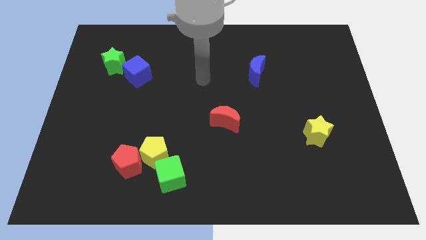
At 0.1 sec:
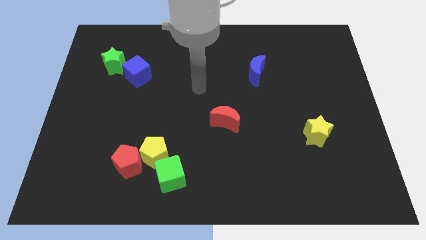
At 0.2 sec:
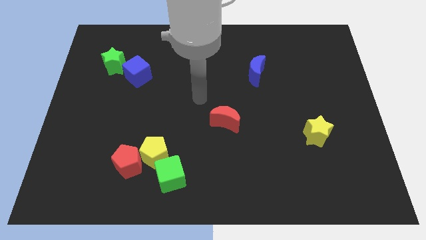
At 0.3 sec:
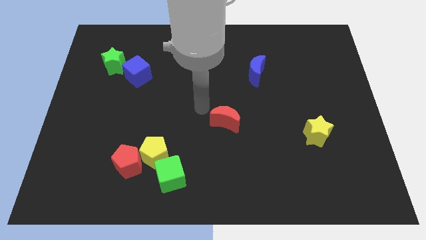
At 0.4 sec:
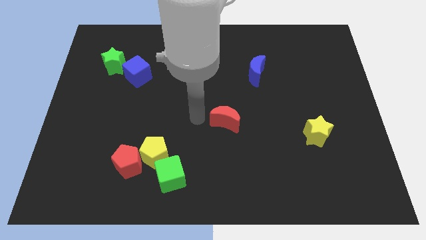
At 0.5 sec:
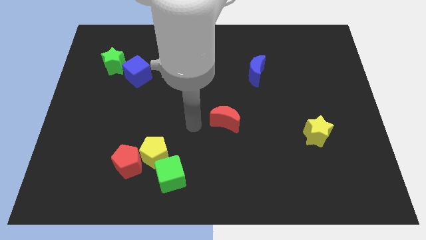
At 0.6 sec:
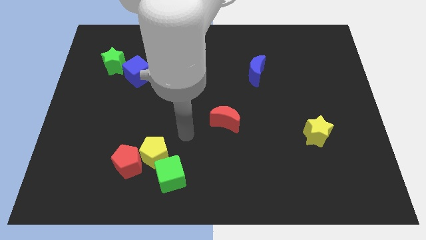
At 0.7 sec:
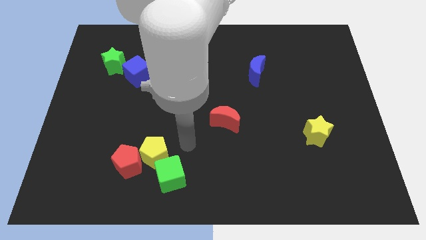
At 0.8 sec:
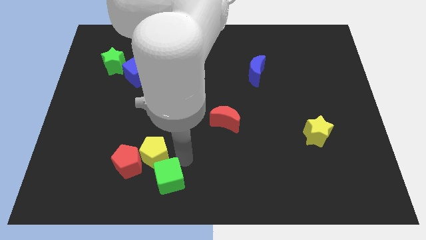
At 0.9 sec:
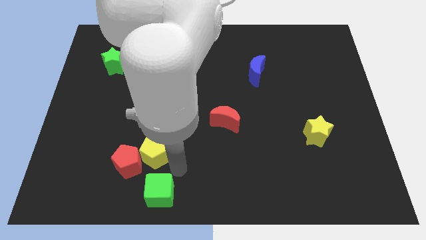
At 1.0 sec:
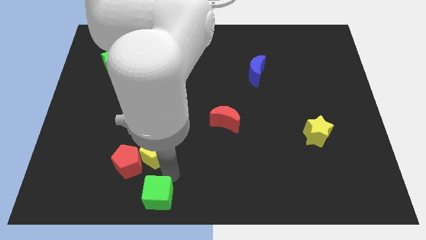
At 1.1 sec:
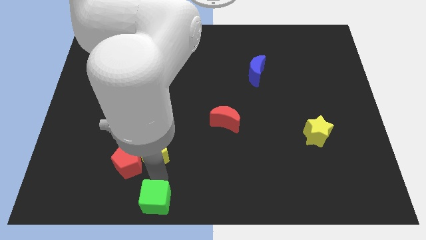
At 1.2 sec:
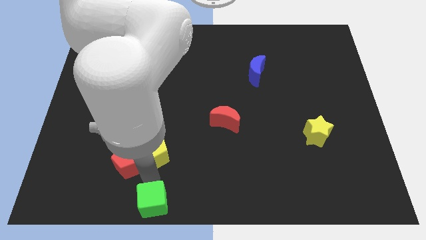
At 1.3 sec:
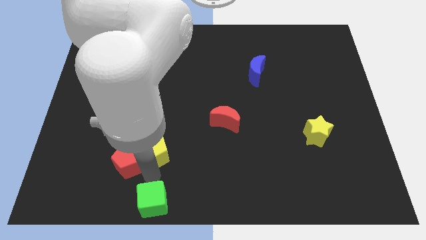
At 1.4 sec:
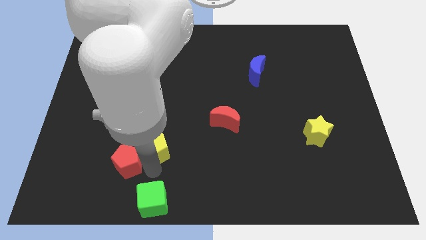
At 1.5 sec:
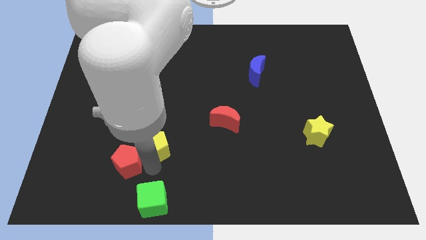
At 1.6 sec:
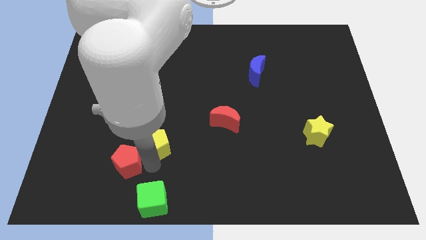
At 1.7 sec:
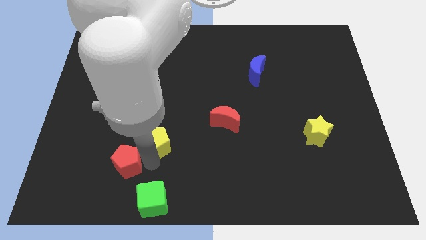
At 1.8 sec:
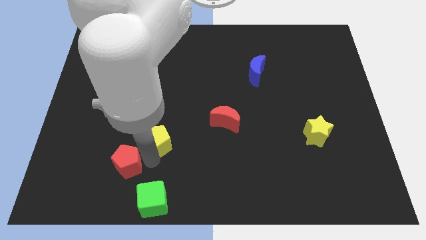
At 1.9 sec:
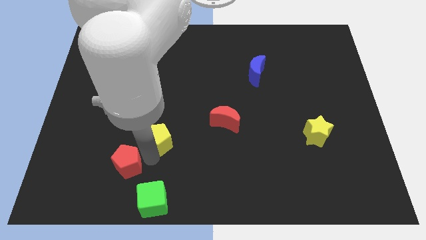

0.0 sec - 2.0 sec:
pull the yellow pentagon apart from the red pentagon and green cube

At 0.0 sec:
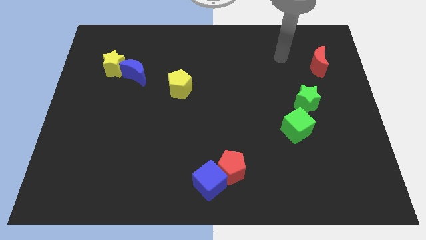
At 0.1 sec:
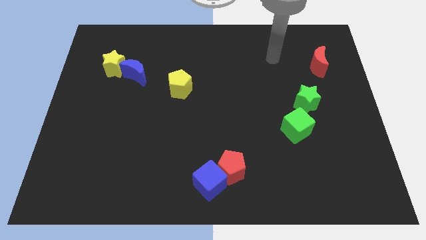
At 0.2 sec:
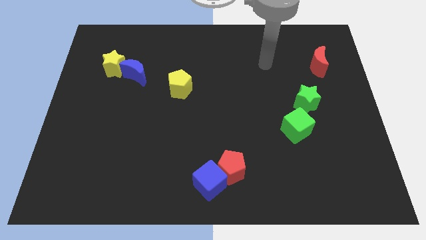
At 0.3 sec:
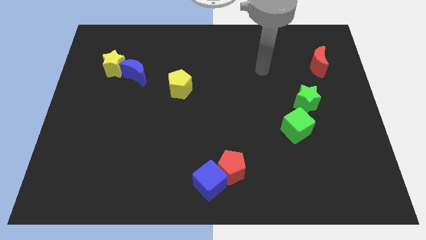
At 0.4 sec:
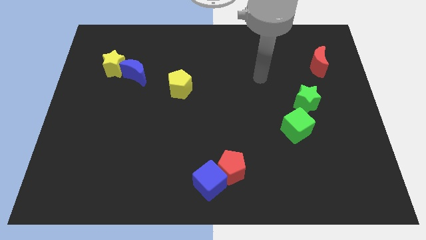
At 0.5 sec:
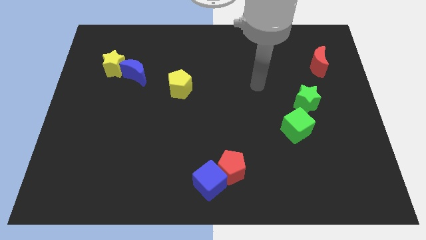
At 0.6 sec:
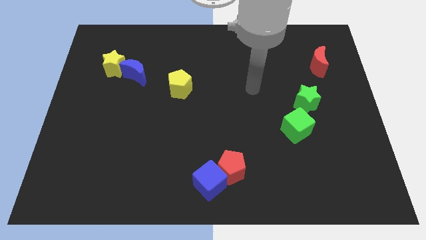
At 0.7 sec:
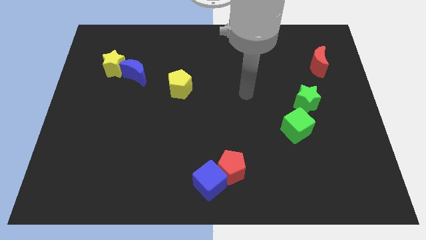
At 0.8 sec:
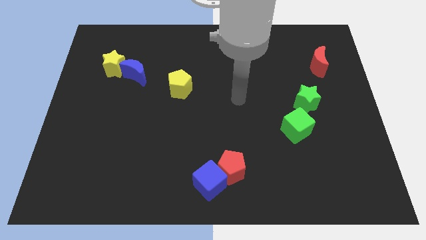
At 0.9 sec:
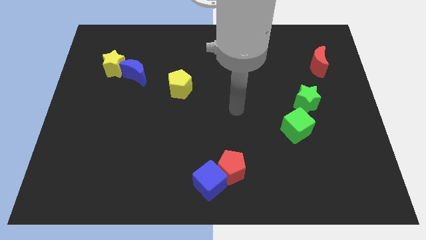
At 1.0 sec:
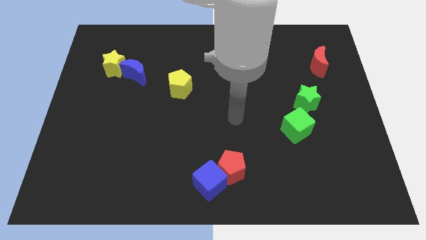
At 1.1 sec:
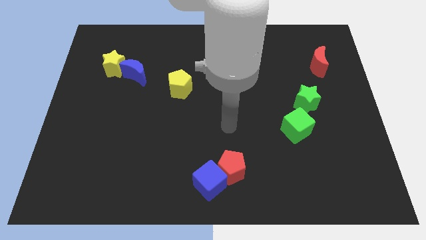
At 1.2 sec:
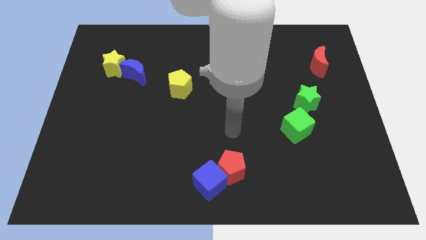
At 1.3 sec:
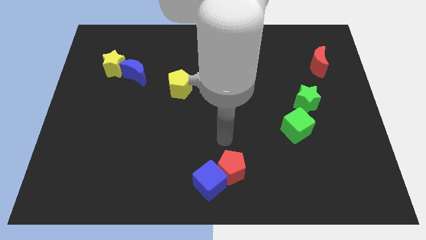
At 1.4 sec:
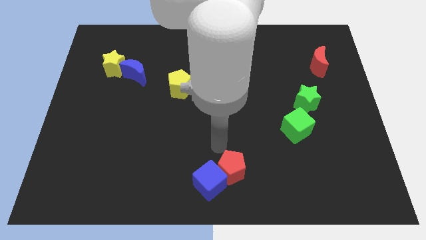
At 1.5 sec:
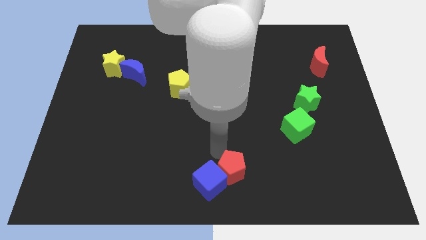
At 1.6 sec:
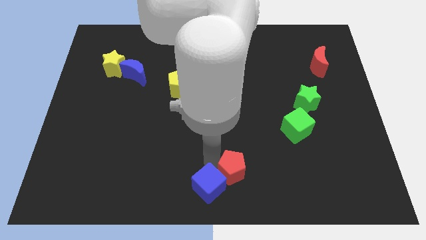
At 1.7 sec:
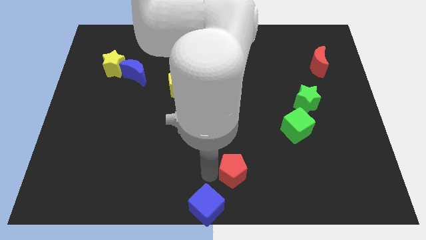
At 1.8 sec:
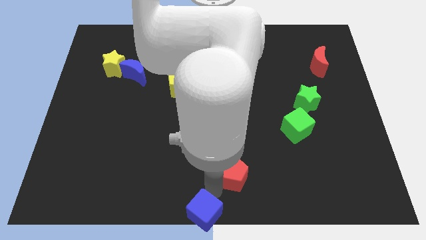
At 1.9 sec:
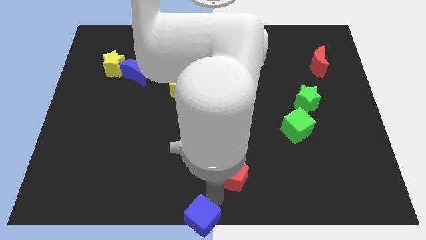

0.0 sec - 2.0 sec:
move the red pentagon away from the blue cube

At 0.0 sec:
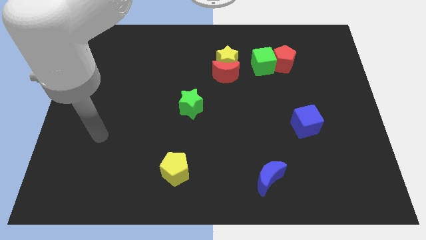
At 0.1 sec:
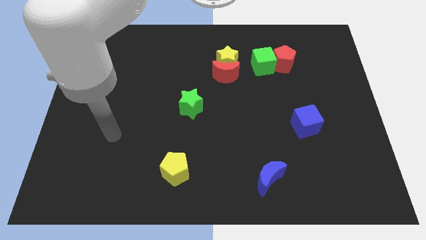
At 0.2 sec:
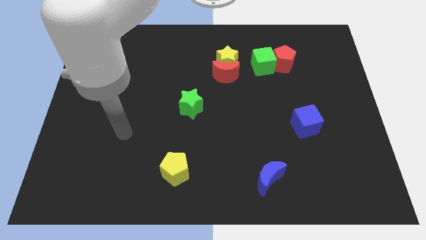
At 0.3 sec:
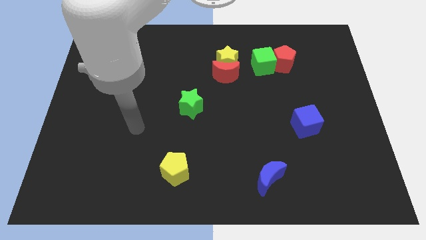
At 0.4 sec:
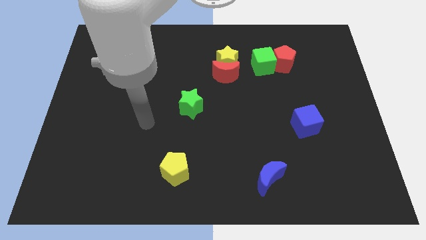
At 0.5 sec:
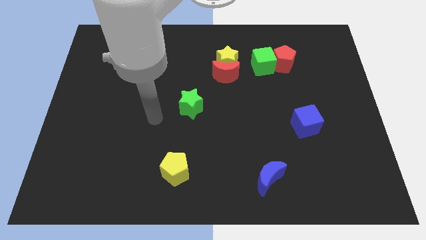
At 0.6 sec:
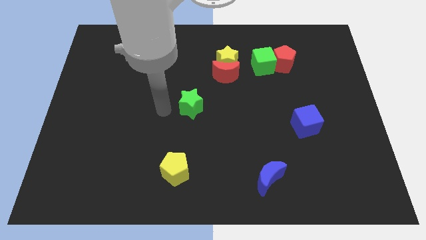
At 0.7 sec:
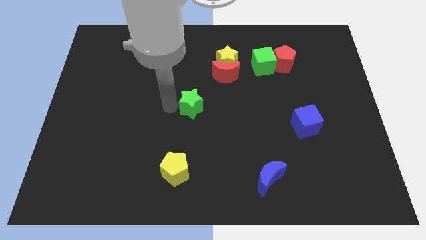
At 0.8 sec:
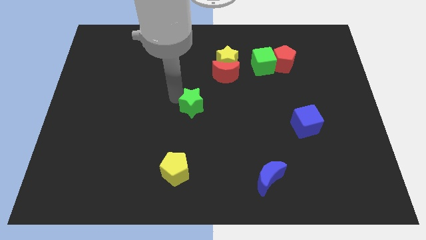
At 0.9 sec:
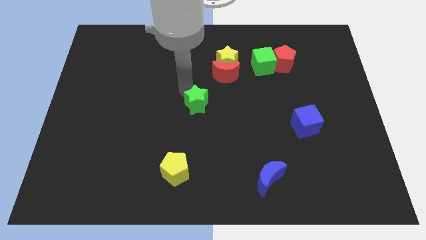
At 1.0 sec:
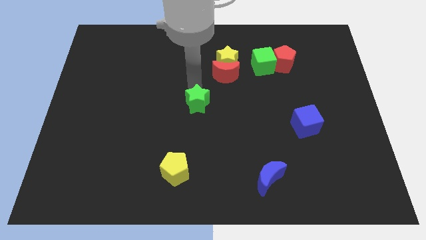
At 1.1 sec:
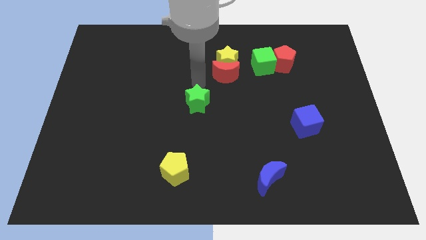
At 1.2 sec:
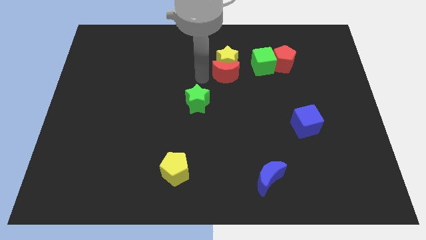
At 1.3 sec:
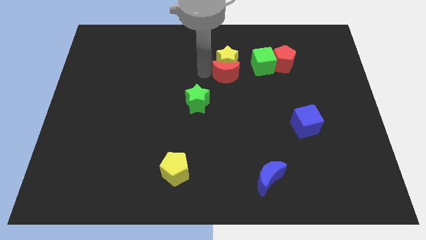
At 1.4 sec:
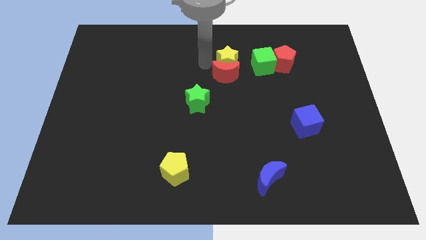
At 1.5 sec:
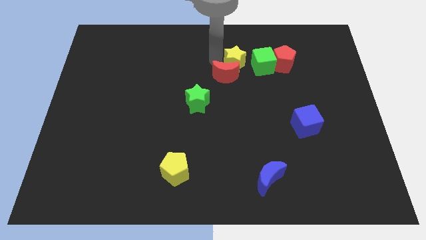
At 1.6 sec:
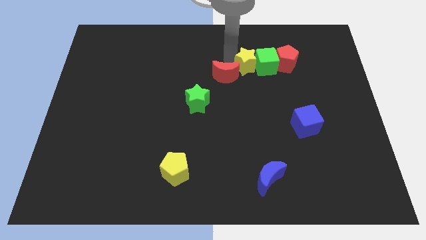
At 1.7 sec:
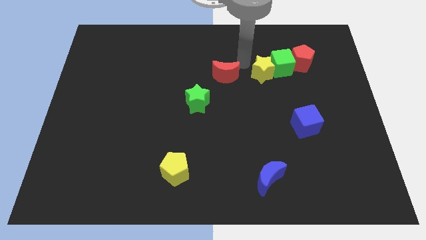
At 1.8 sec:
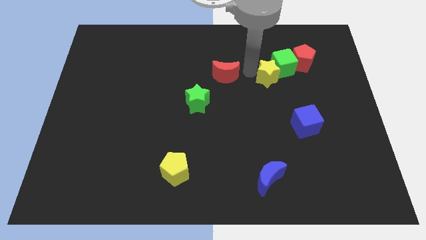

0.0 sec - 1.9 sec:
separate the red moon from the yellow star

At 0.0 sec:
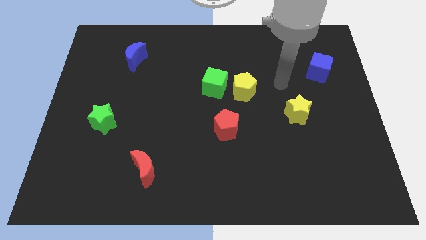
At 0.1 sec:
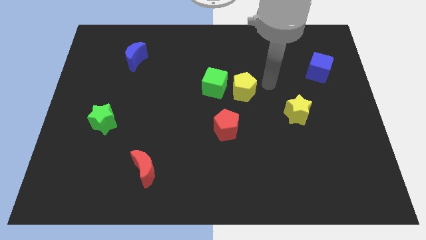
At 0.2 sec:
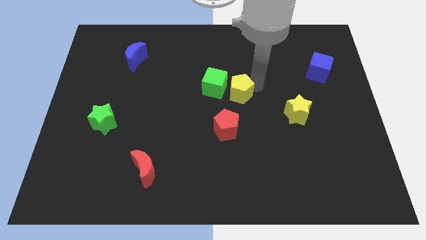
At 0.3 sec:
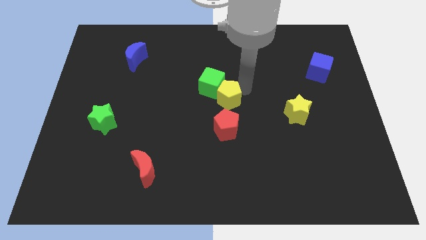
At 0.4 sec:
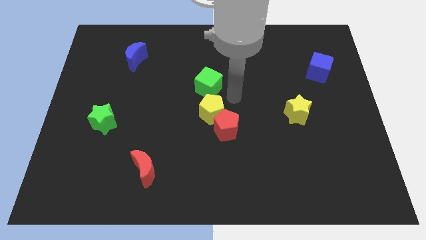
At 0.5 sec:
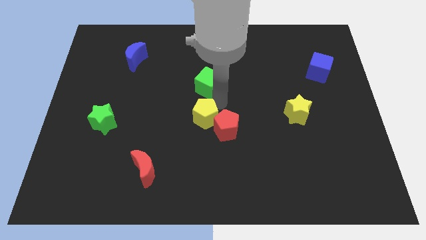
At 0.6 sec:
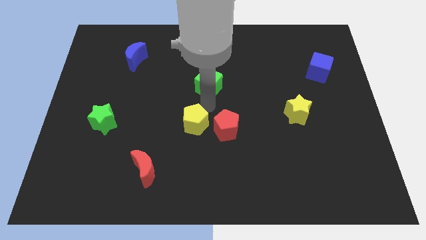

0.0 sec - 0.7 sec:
move the green cube away from the yellow pentagon

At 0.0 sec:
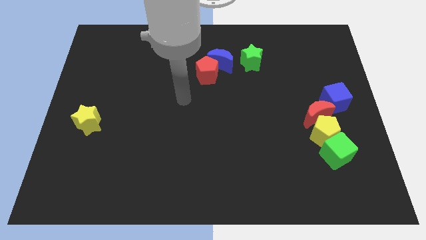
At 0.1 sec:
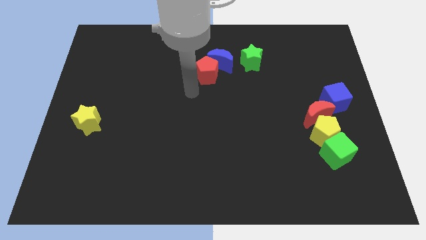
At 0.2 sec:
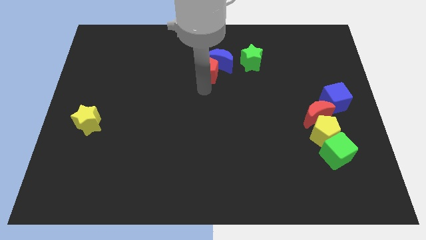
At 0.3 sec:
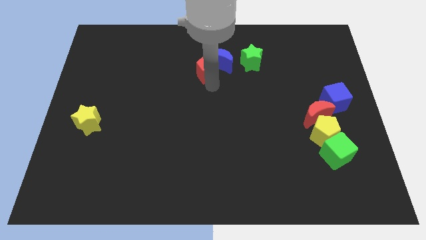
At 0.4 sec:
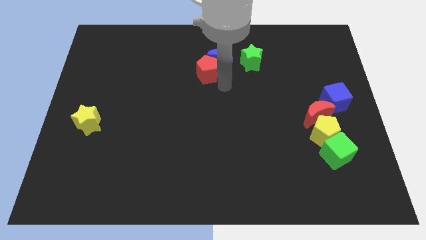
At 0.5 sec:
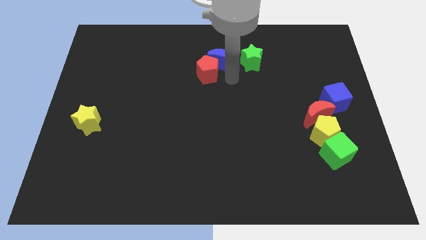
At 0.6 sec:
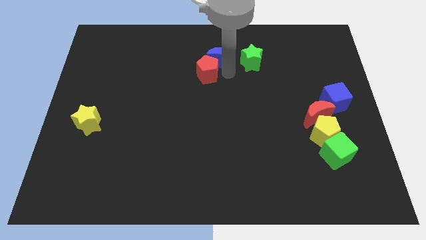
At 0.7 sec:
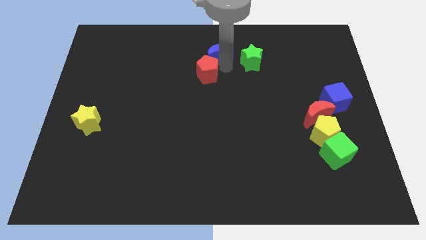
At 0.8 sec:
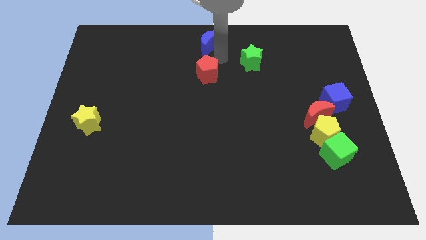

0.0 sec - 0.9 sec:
separate the red pentagon from the blue moon

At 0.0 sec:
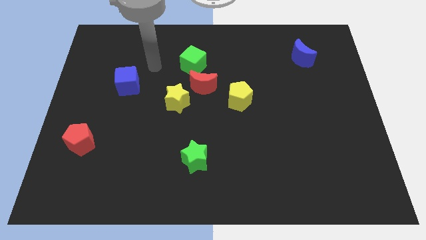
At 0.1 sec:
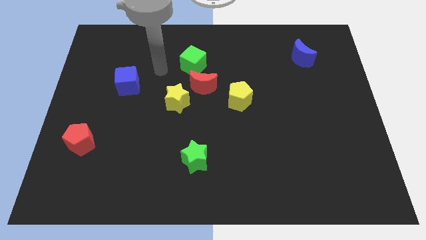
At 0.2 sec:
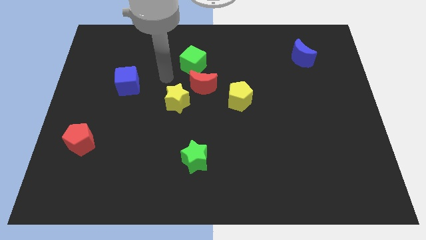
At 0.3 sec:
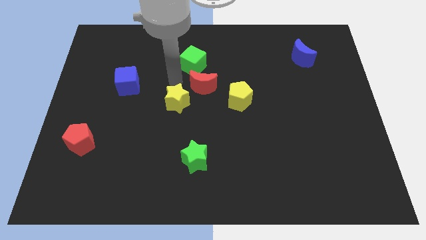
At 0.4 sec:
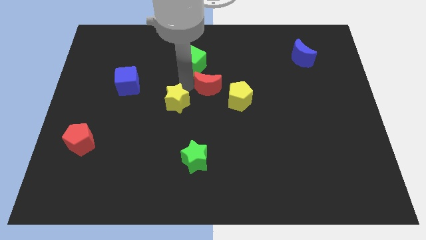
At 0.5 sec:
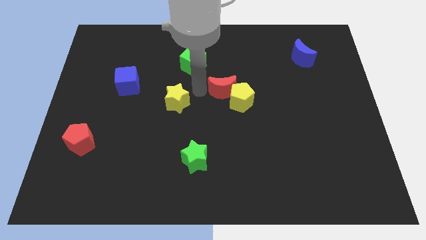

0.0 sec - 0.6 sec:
move the yellow star away from the red moon

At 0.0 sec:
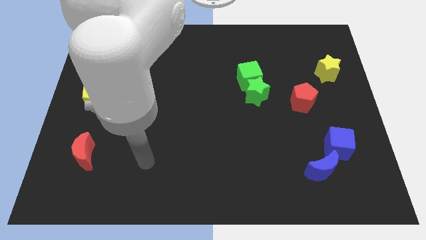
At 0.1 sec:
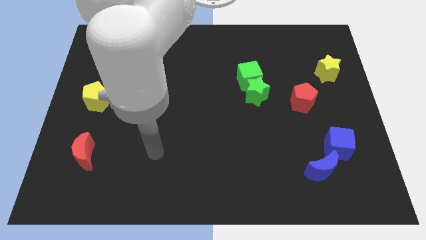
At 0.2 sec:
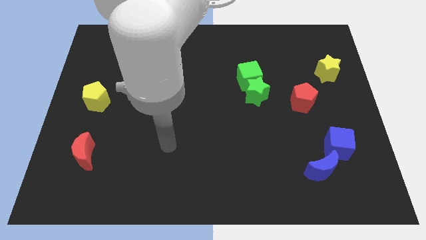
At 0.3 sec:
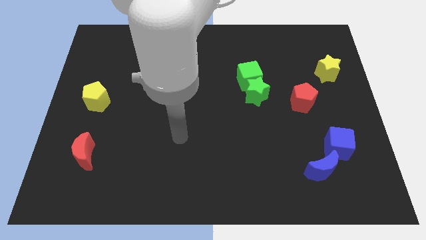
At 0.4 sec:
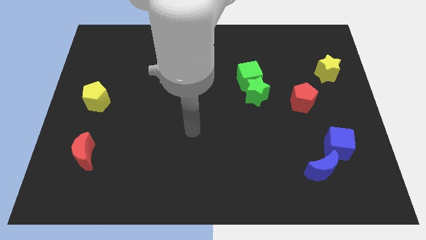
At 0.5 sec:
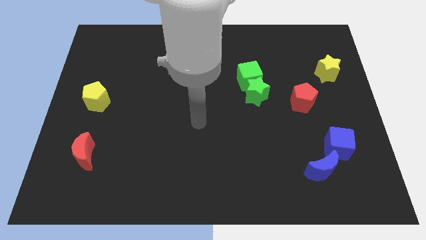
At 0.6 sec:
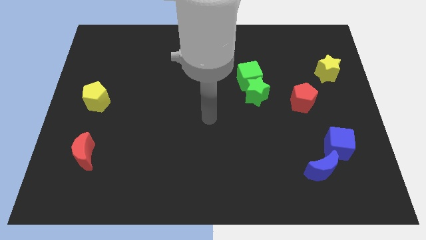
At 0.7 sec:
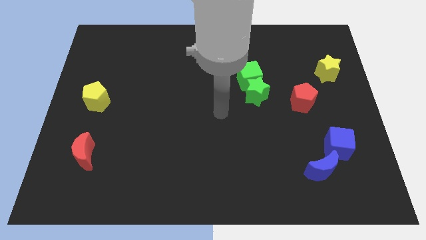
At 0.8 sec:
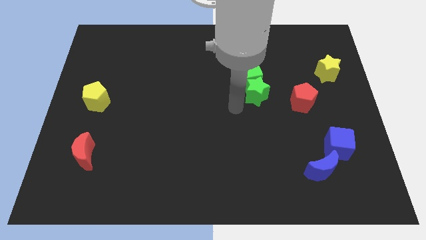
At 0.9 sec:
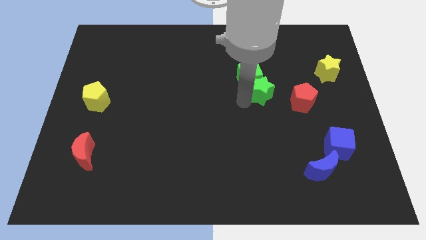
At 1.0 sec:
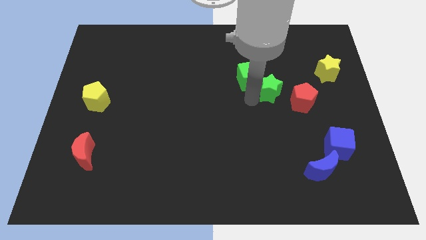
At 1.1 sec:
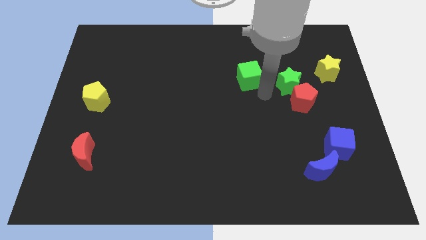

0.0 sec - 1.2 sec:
separate the green cube from the green star
